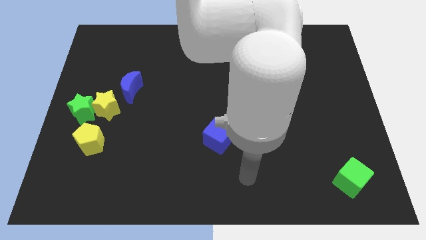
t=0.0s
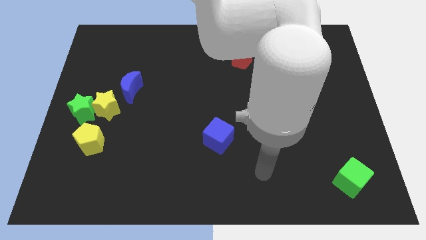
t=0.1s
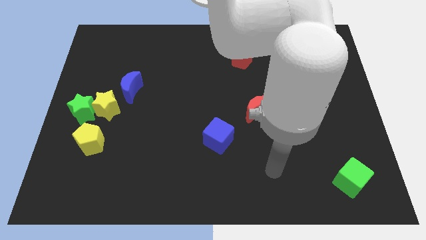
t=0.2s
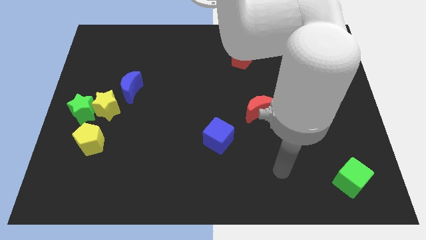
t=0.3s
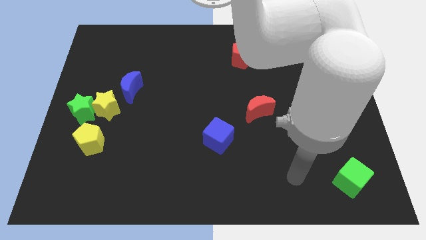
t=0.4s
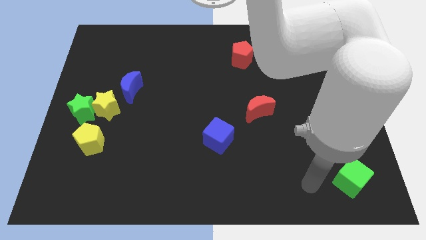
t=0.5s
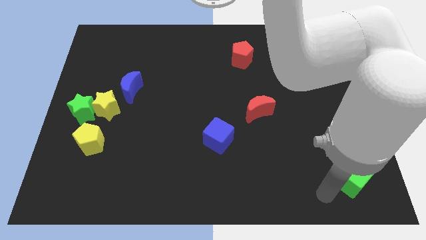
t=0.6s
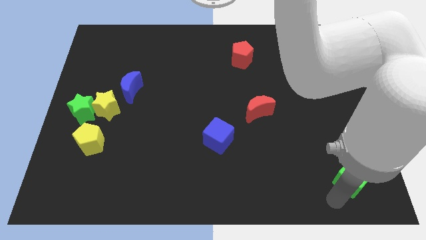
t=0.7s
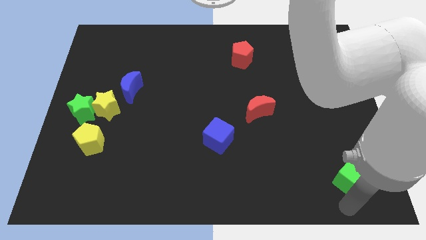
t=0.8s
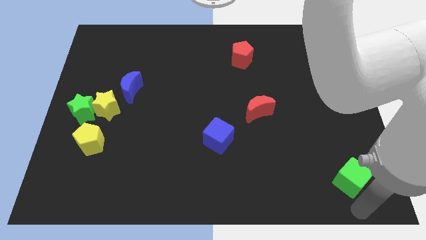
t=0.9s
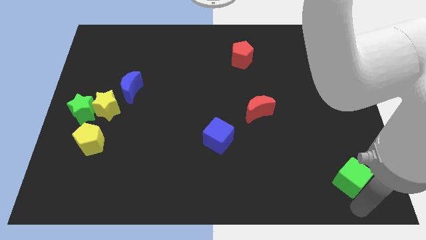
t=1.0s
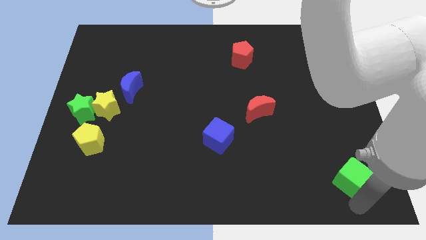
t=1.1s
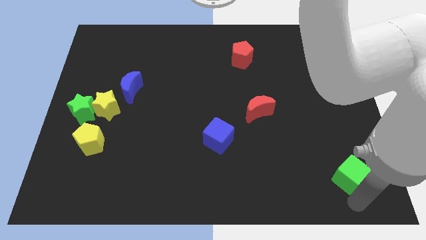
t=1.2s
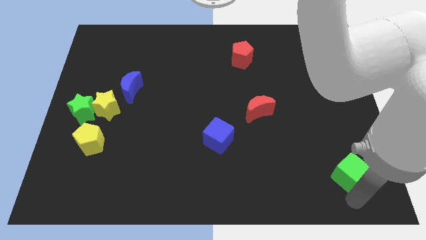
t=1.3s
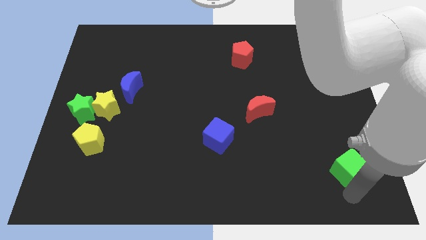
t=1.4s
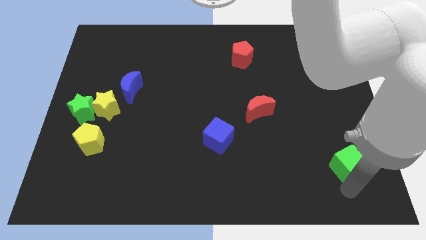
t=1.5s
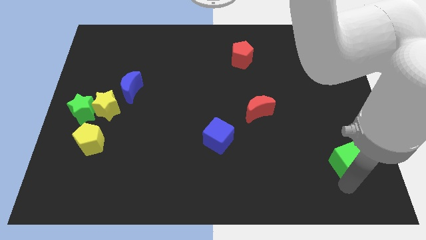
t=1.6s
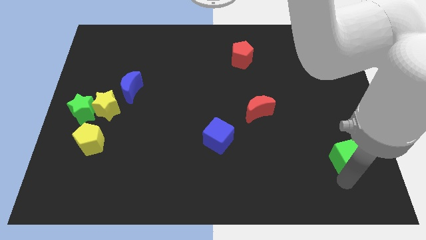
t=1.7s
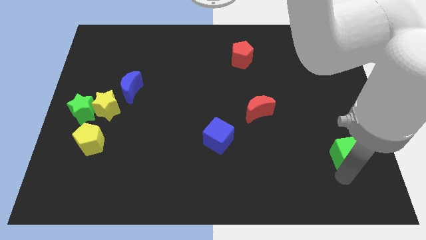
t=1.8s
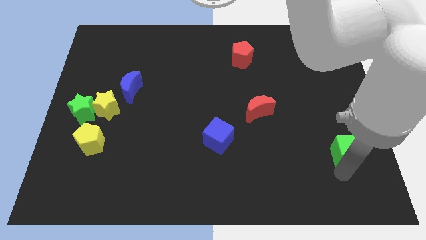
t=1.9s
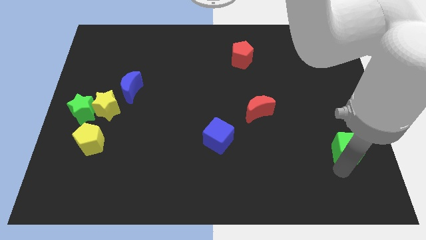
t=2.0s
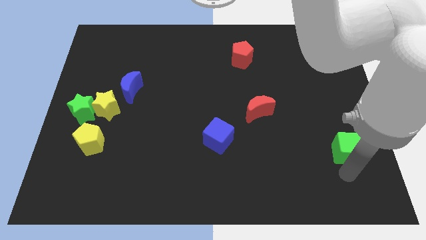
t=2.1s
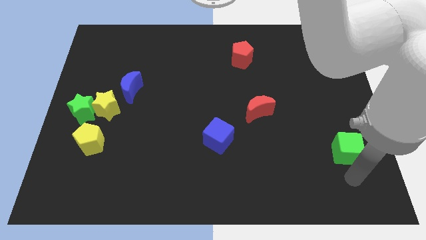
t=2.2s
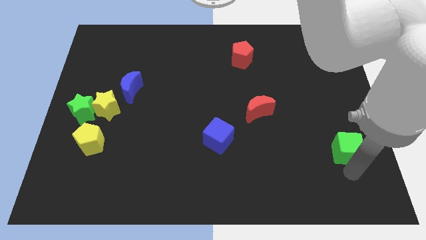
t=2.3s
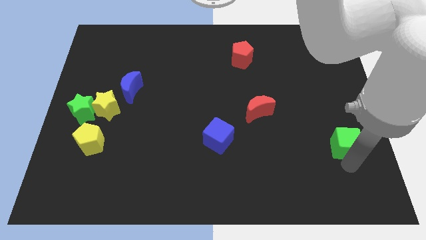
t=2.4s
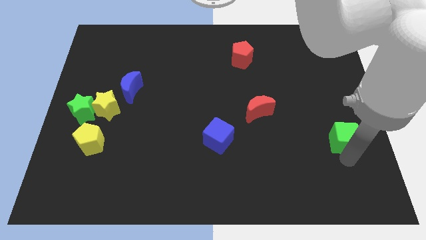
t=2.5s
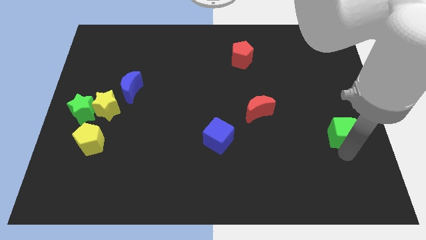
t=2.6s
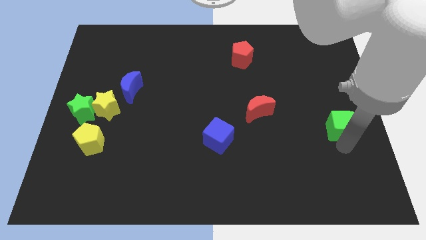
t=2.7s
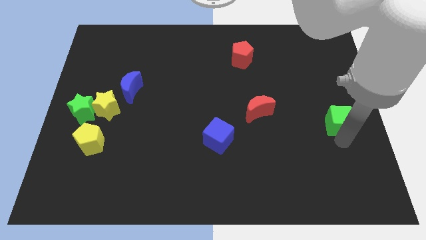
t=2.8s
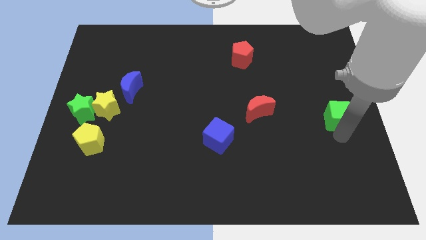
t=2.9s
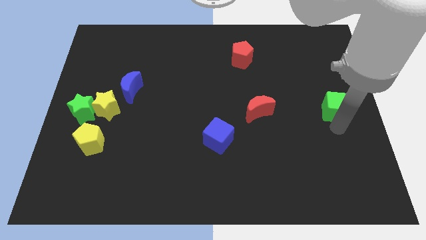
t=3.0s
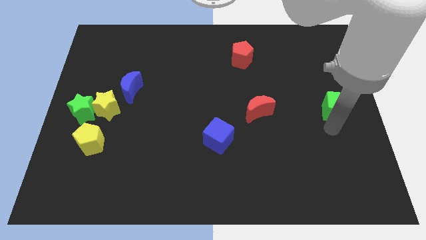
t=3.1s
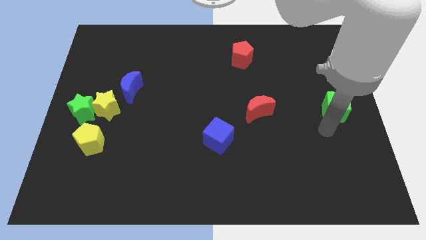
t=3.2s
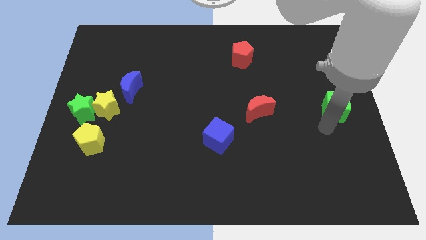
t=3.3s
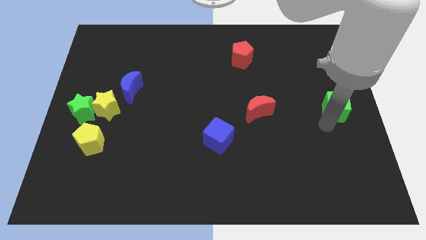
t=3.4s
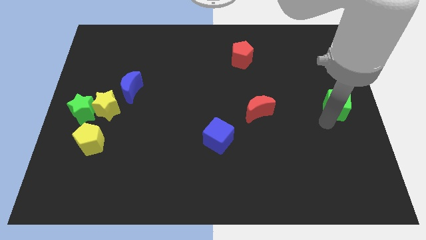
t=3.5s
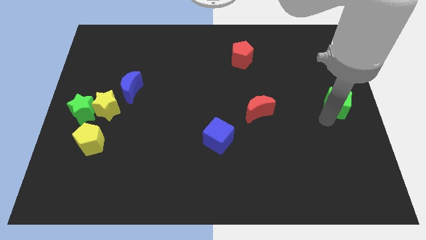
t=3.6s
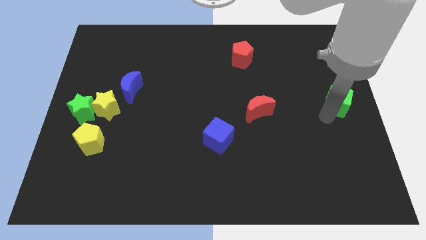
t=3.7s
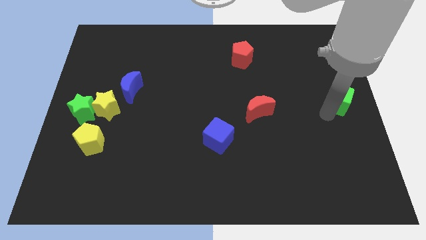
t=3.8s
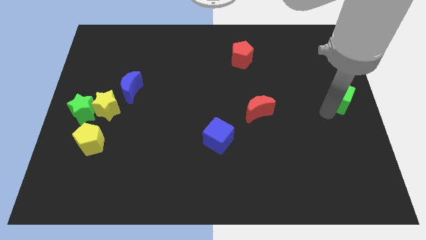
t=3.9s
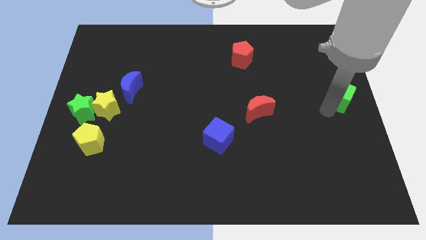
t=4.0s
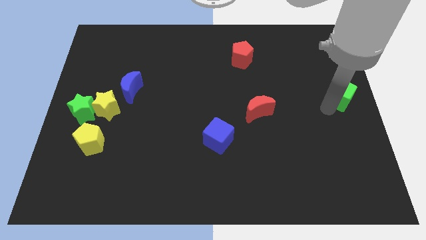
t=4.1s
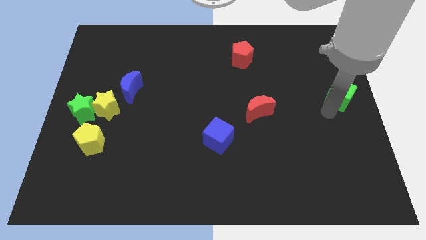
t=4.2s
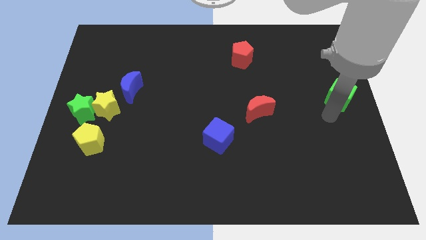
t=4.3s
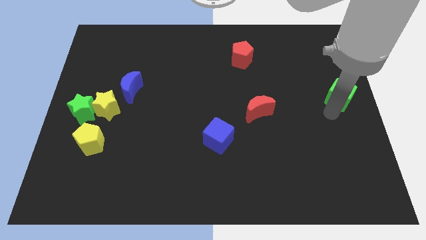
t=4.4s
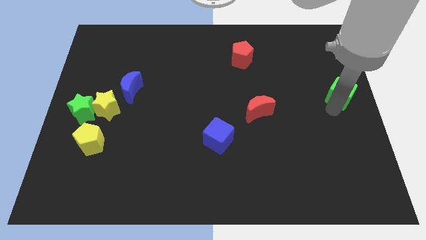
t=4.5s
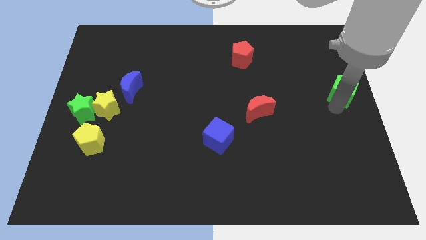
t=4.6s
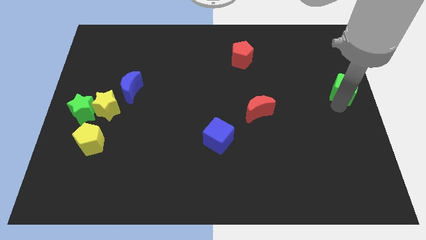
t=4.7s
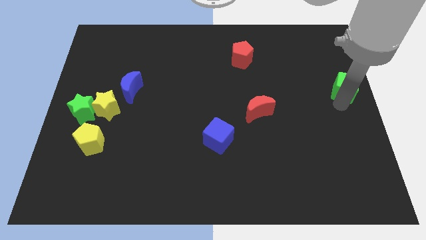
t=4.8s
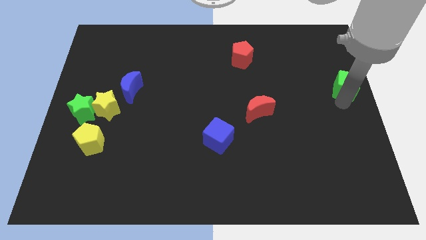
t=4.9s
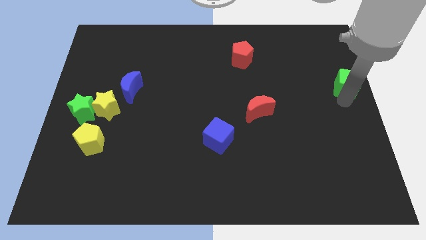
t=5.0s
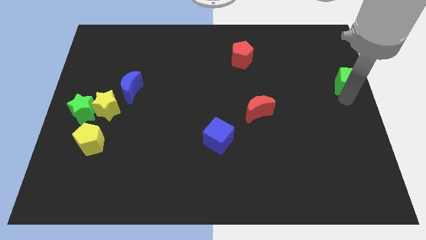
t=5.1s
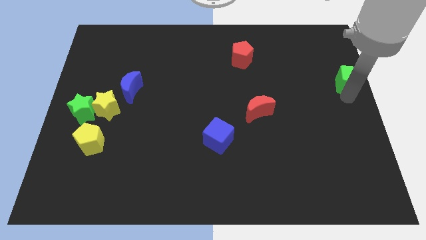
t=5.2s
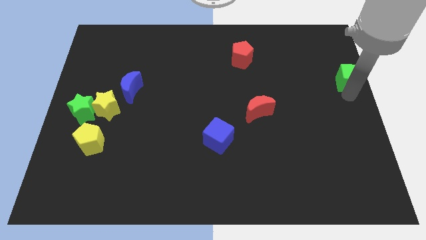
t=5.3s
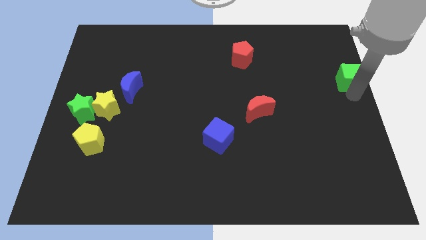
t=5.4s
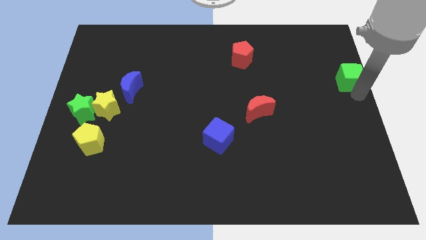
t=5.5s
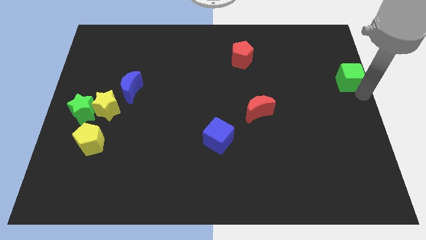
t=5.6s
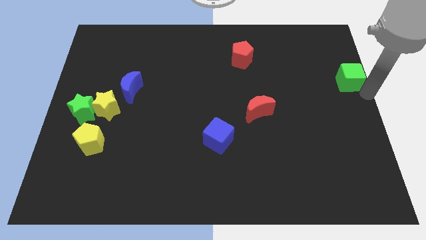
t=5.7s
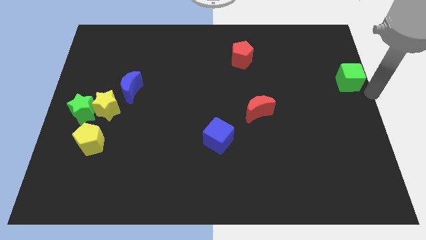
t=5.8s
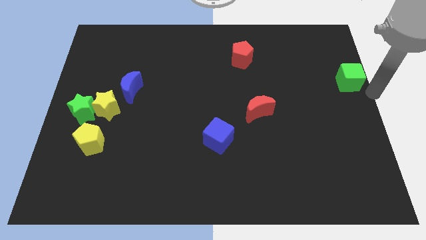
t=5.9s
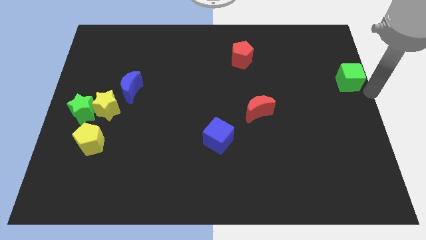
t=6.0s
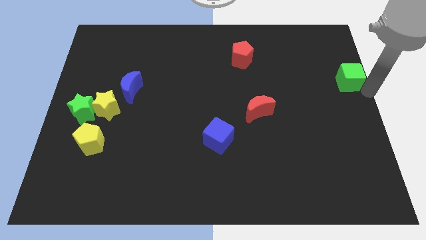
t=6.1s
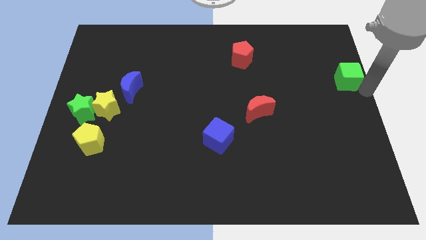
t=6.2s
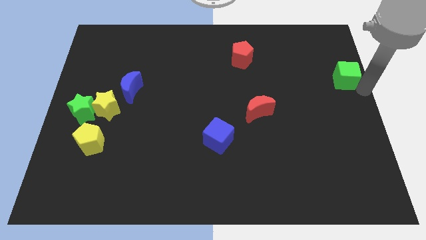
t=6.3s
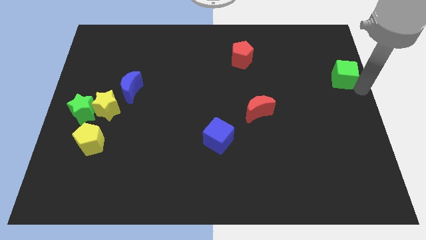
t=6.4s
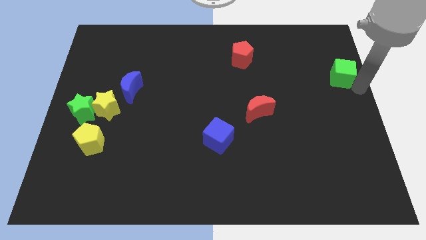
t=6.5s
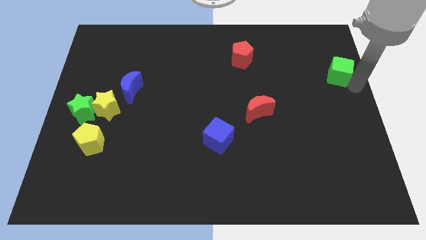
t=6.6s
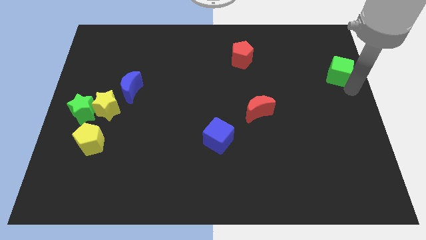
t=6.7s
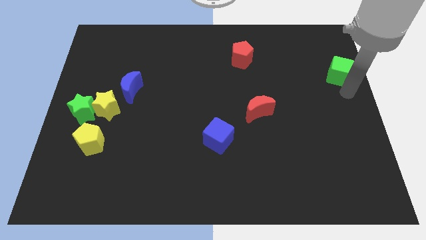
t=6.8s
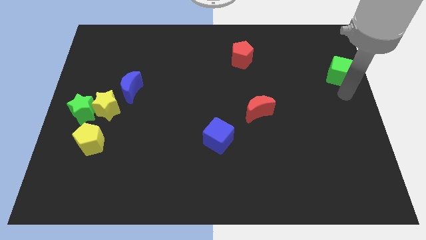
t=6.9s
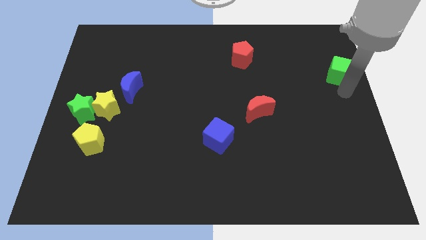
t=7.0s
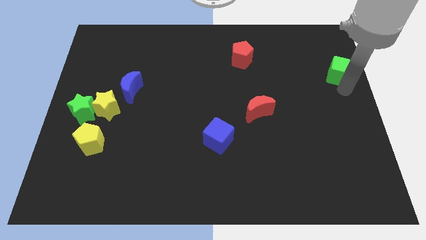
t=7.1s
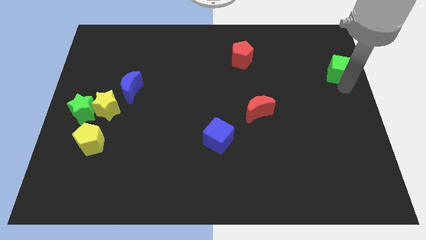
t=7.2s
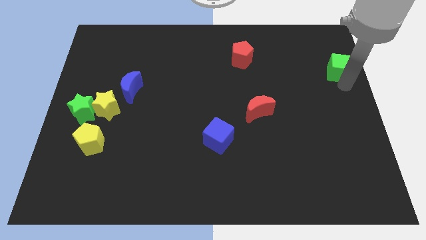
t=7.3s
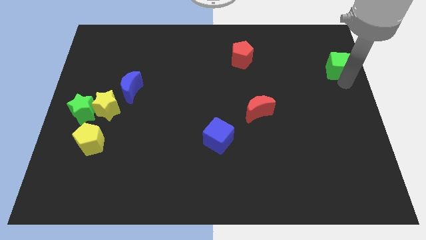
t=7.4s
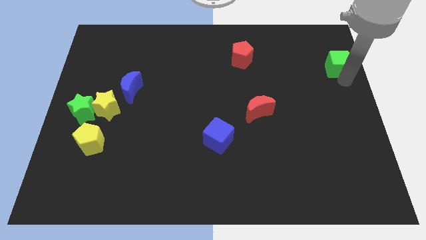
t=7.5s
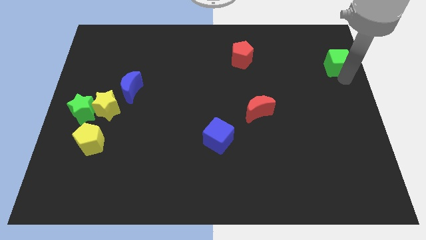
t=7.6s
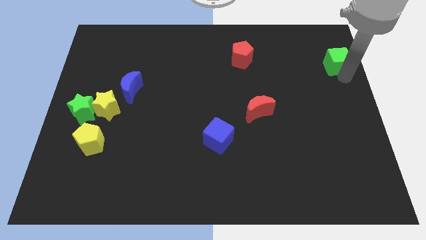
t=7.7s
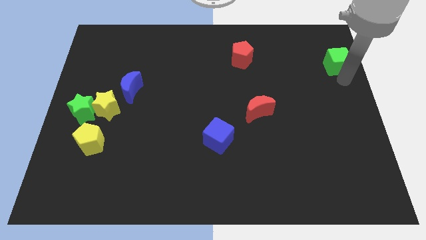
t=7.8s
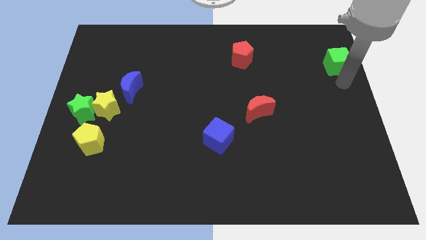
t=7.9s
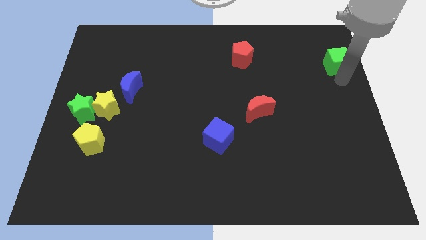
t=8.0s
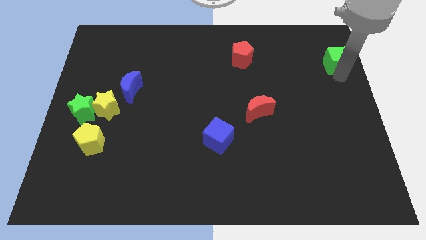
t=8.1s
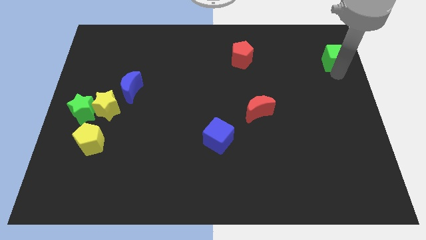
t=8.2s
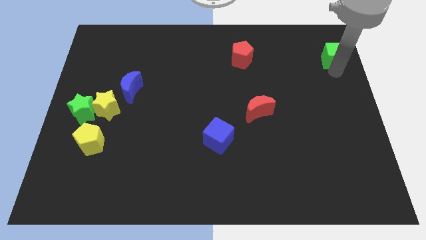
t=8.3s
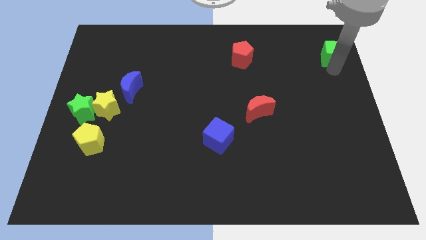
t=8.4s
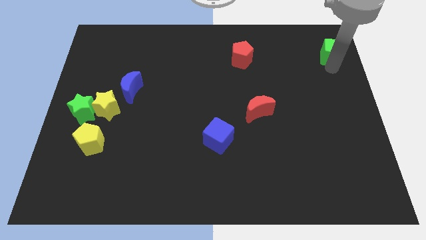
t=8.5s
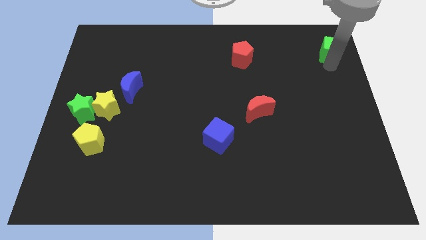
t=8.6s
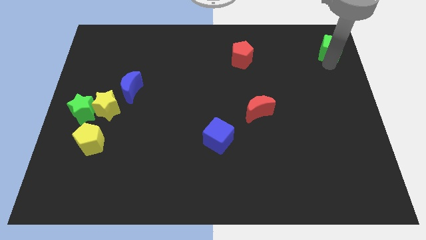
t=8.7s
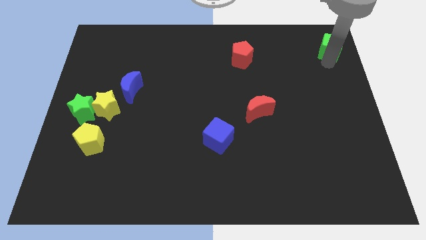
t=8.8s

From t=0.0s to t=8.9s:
move the green cube to the upper right corner
